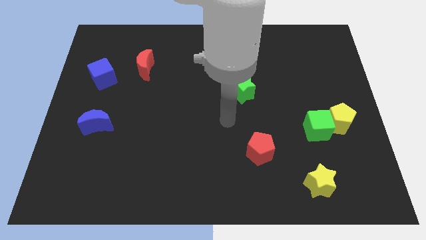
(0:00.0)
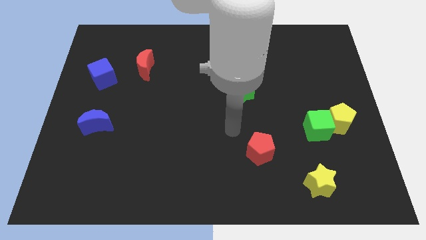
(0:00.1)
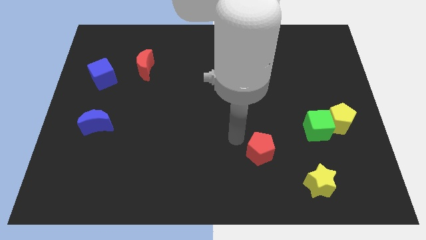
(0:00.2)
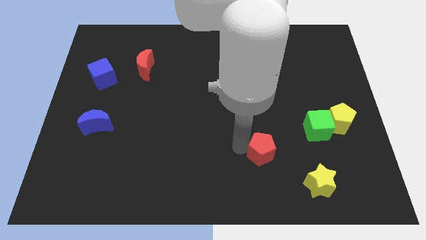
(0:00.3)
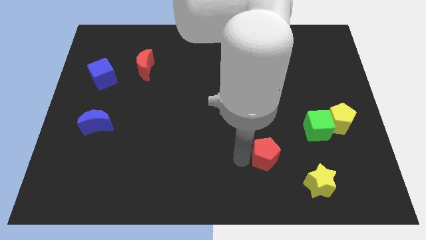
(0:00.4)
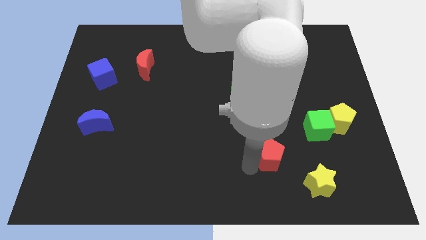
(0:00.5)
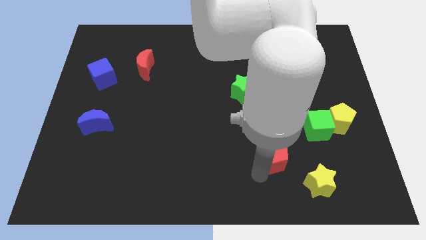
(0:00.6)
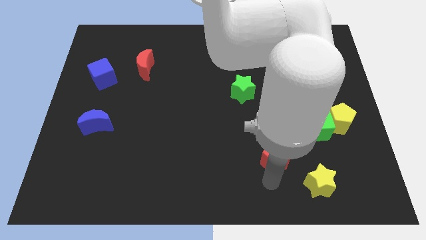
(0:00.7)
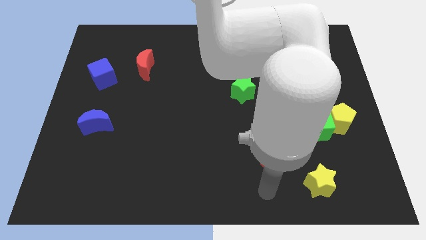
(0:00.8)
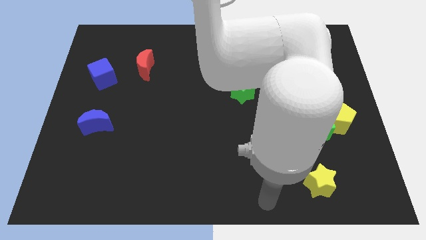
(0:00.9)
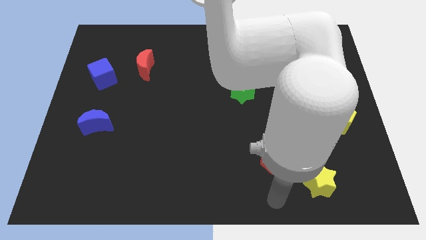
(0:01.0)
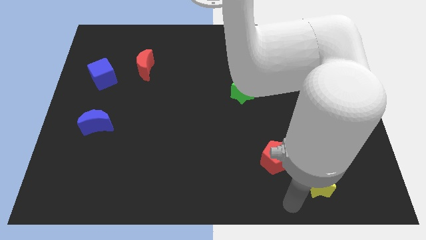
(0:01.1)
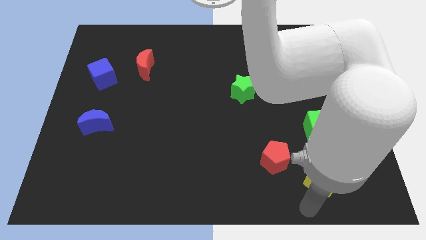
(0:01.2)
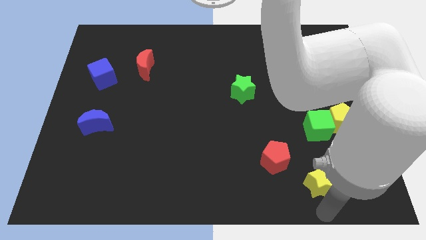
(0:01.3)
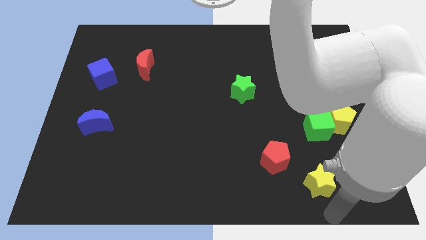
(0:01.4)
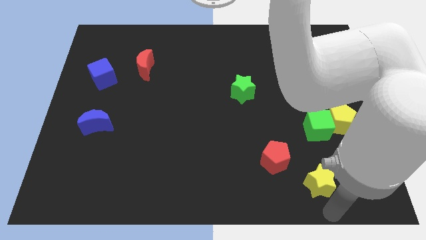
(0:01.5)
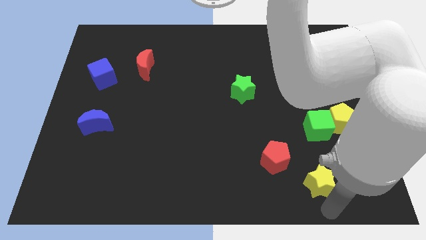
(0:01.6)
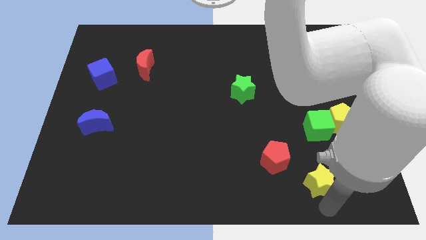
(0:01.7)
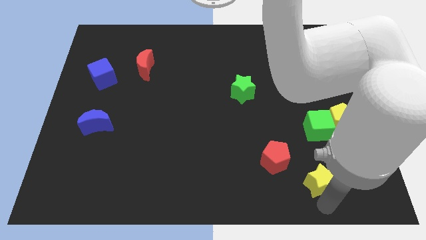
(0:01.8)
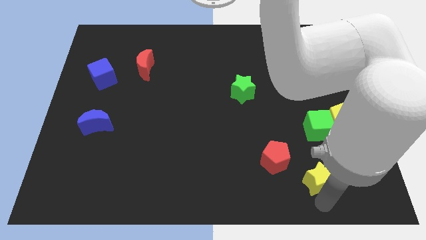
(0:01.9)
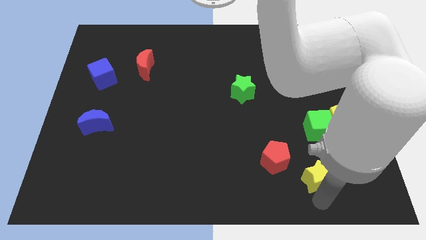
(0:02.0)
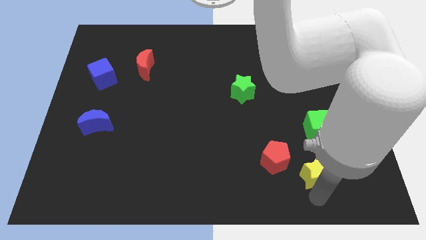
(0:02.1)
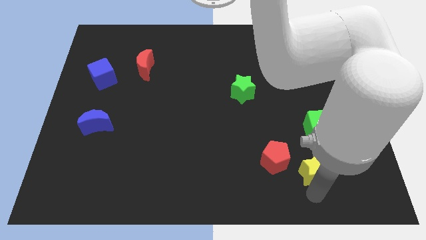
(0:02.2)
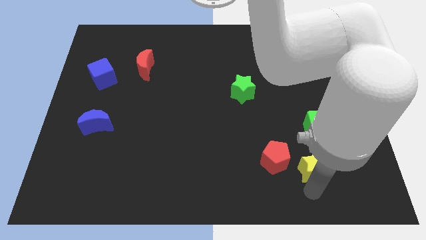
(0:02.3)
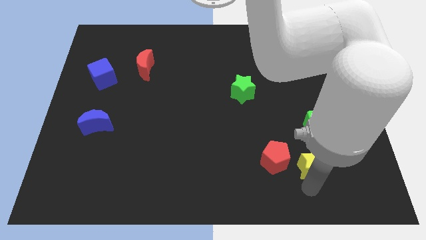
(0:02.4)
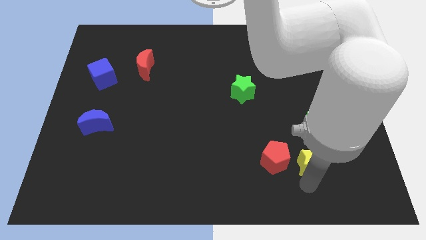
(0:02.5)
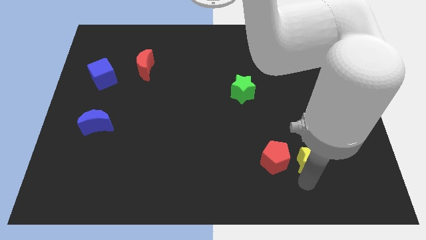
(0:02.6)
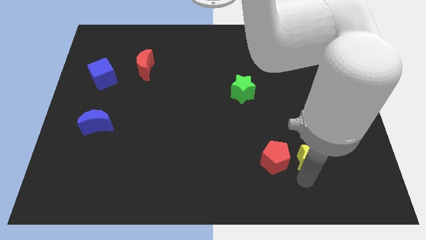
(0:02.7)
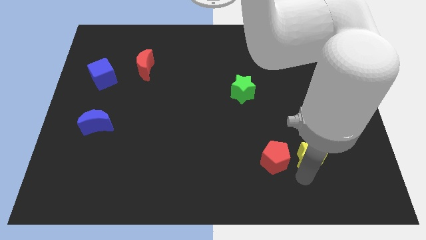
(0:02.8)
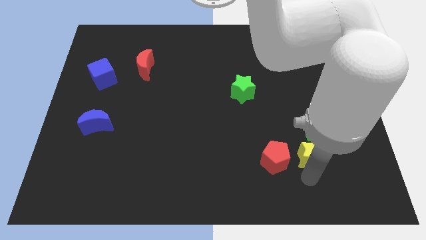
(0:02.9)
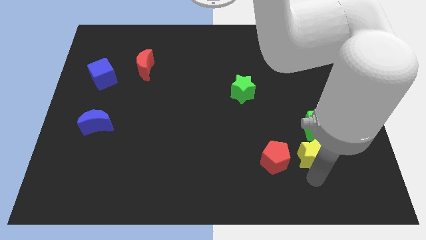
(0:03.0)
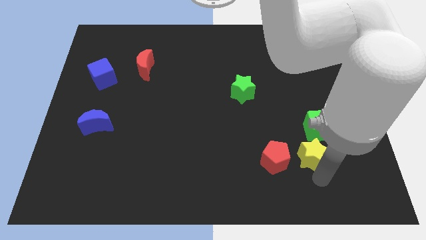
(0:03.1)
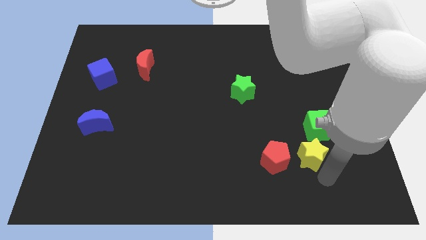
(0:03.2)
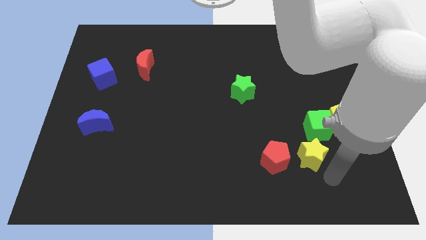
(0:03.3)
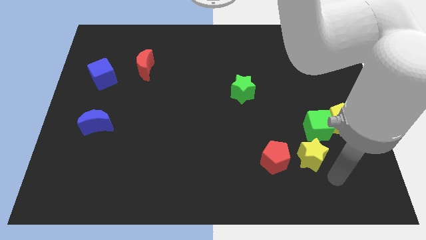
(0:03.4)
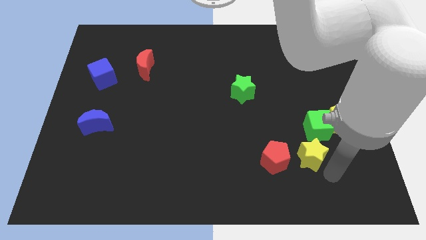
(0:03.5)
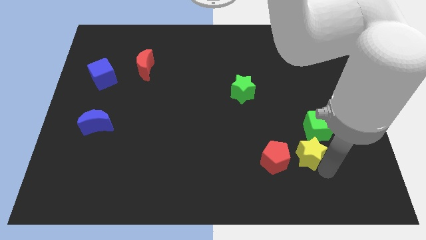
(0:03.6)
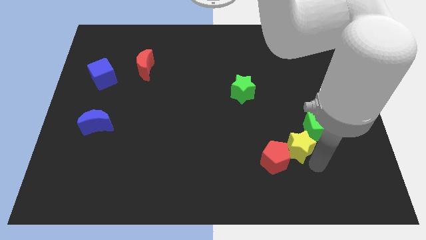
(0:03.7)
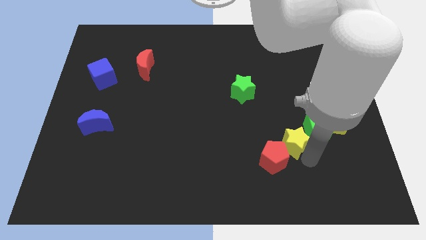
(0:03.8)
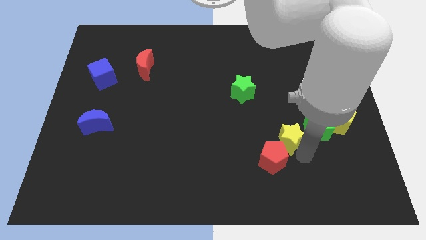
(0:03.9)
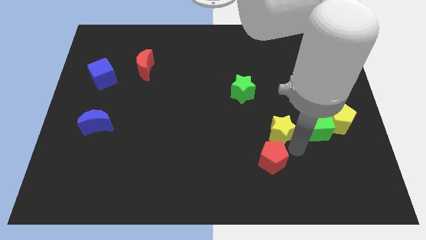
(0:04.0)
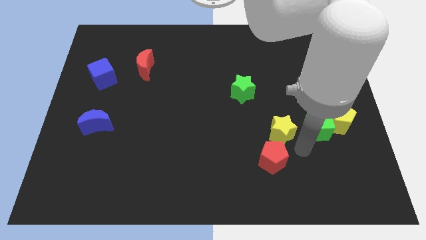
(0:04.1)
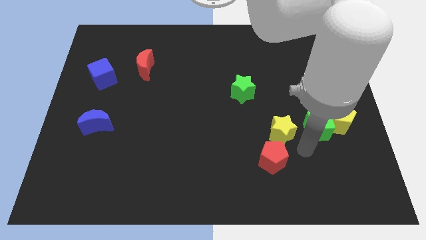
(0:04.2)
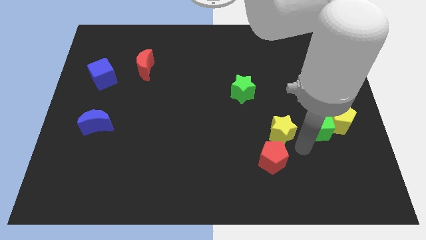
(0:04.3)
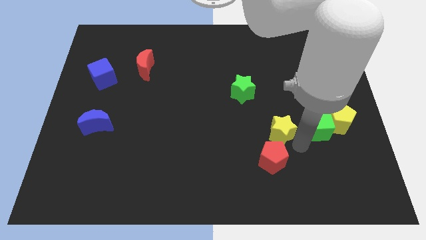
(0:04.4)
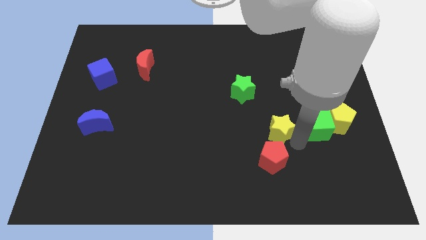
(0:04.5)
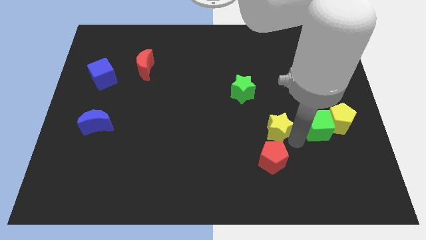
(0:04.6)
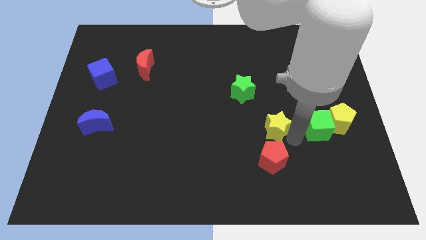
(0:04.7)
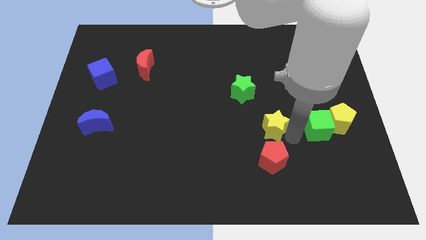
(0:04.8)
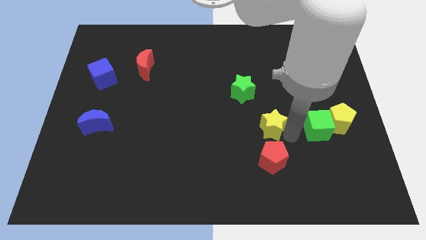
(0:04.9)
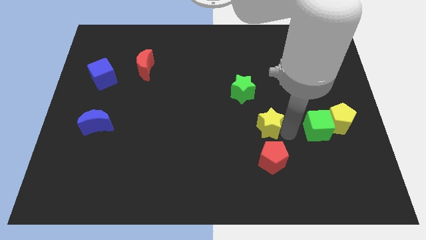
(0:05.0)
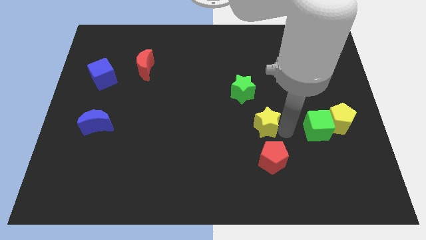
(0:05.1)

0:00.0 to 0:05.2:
push the yellow star to the bottom side of the green star

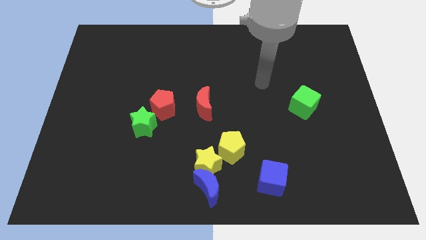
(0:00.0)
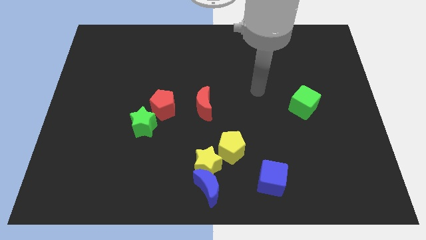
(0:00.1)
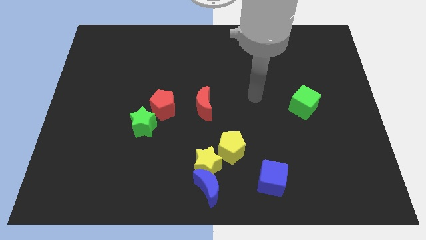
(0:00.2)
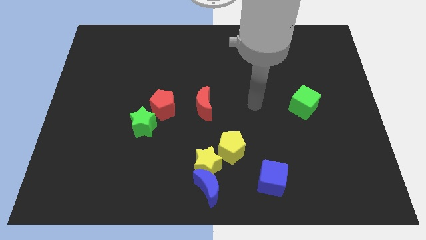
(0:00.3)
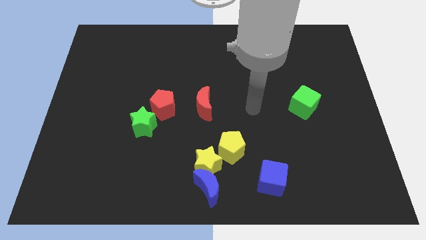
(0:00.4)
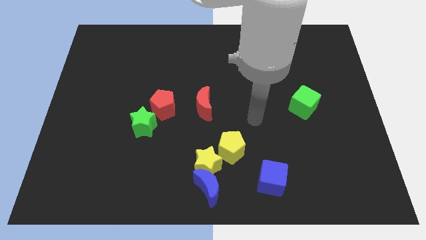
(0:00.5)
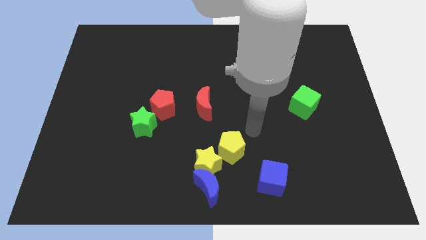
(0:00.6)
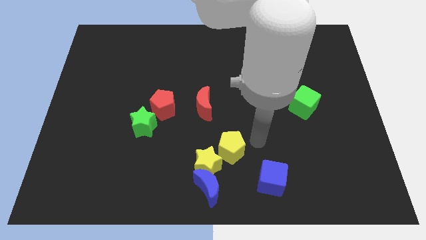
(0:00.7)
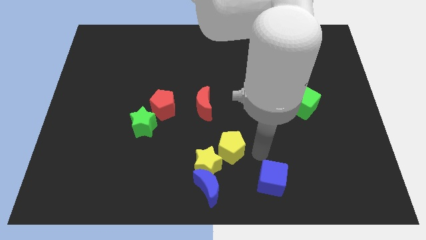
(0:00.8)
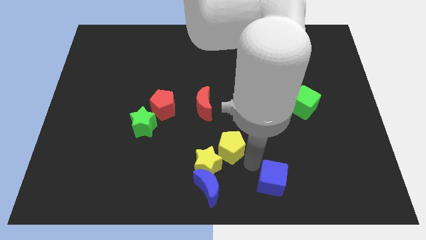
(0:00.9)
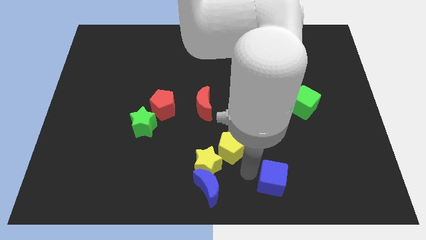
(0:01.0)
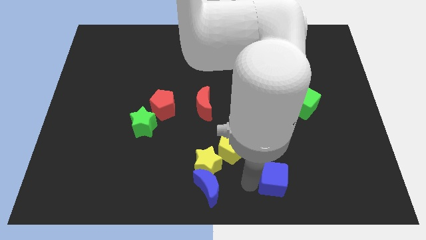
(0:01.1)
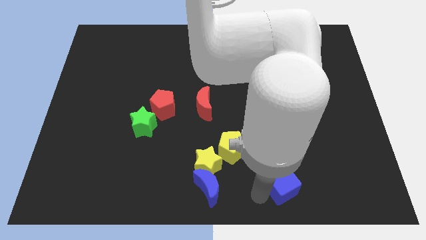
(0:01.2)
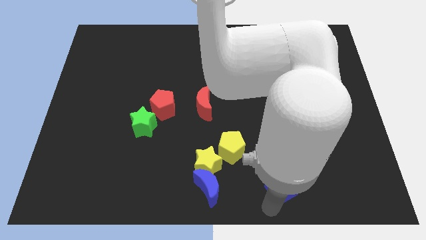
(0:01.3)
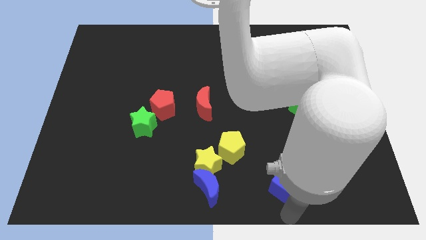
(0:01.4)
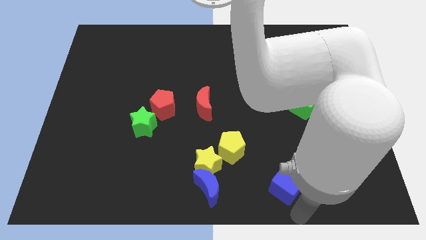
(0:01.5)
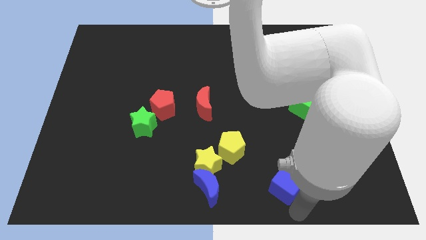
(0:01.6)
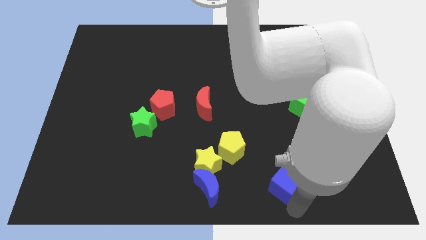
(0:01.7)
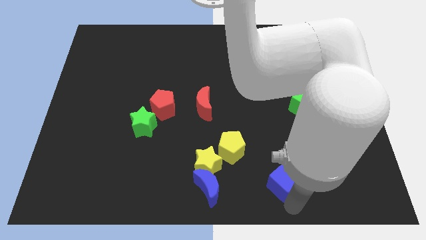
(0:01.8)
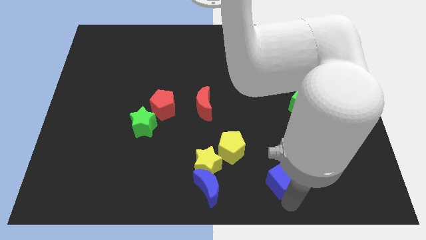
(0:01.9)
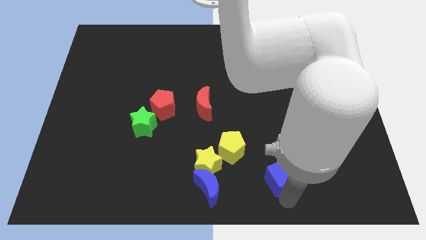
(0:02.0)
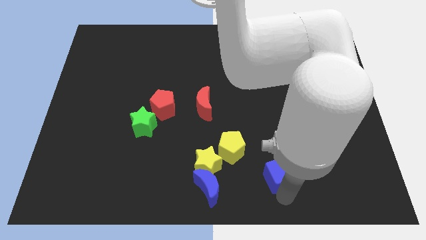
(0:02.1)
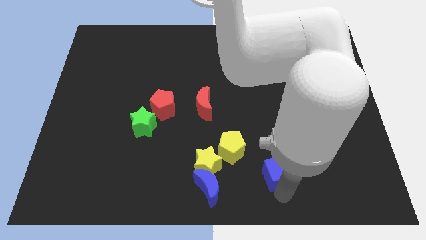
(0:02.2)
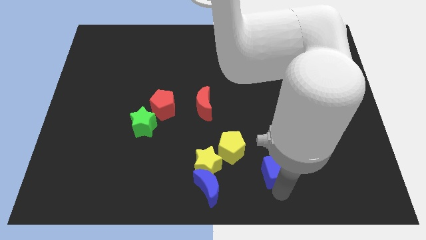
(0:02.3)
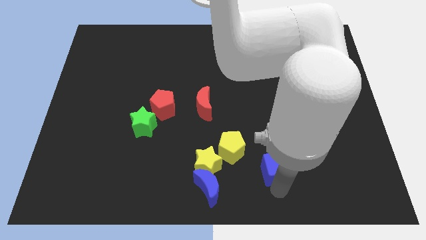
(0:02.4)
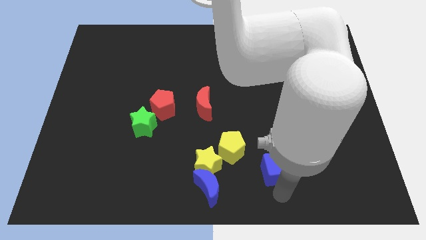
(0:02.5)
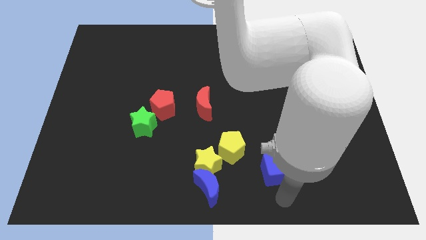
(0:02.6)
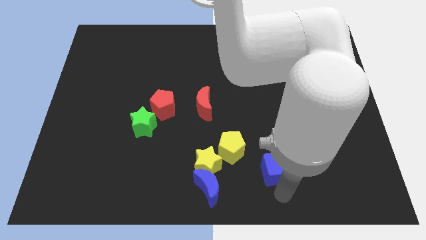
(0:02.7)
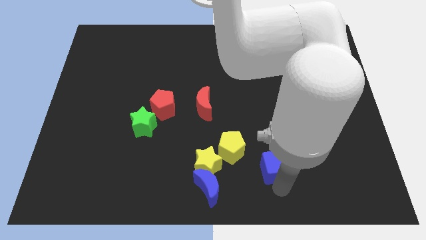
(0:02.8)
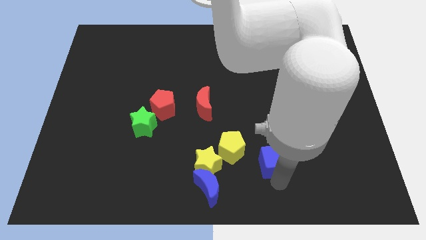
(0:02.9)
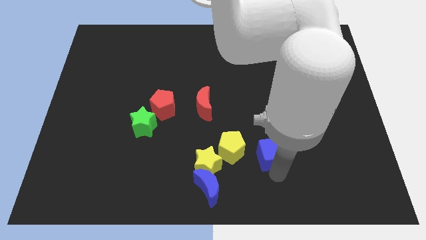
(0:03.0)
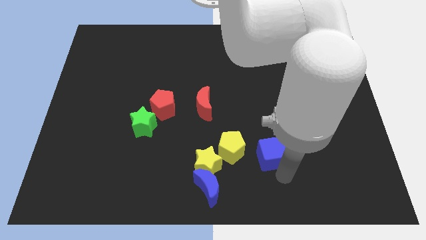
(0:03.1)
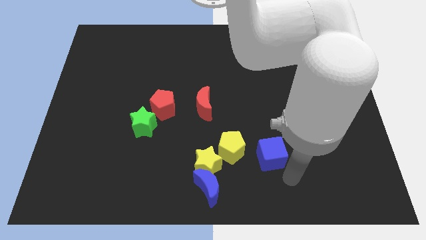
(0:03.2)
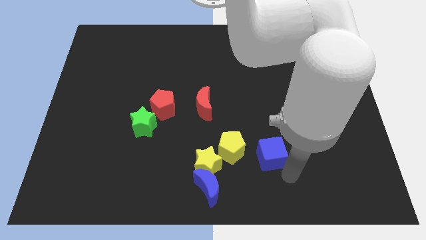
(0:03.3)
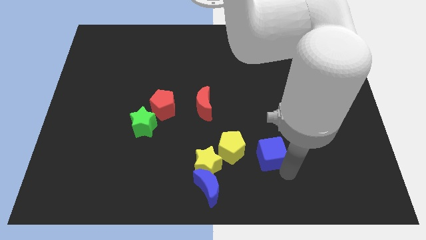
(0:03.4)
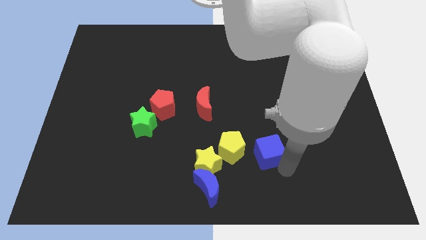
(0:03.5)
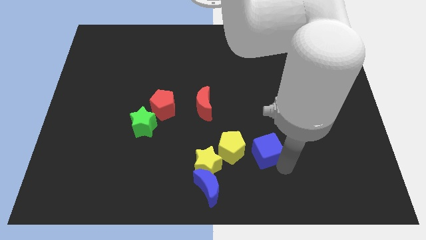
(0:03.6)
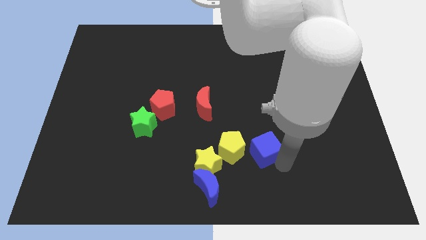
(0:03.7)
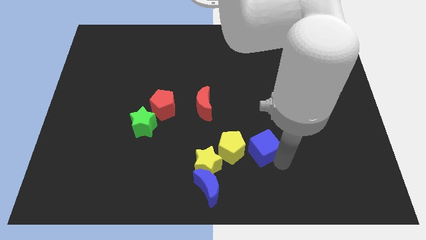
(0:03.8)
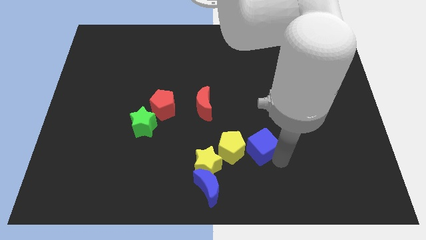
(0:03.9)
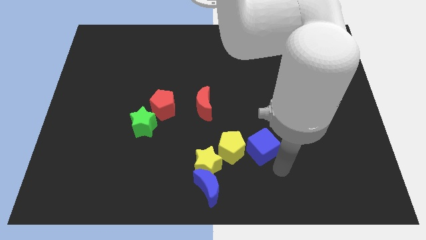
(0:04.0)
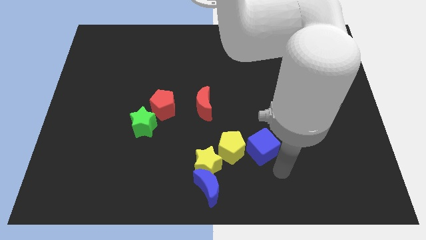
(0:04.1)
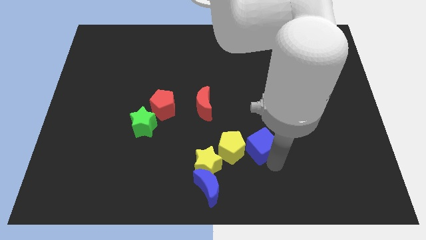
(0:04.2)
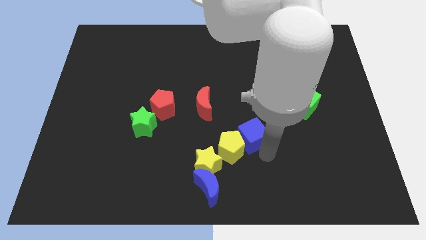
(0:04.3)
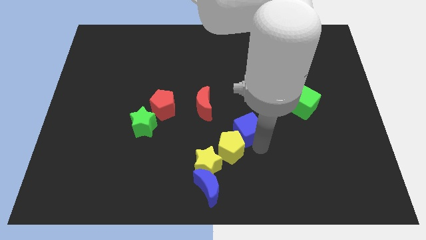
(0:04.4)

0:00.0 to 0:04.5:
slide the blue cube above the yellow pentagon
